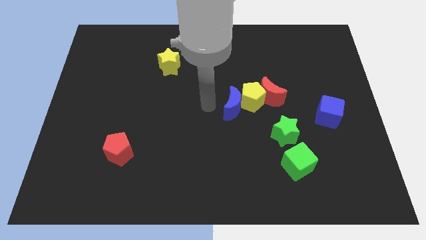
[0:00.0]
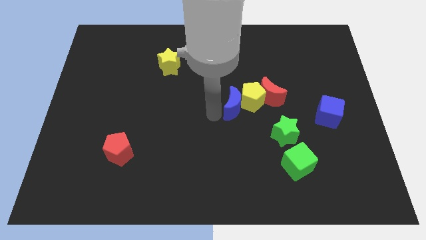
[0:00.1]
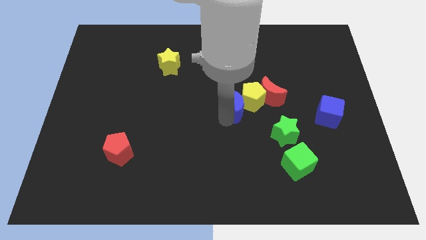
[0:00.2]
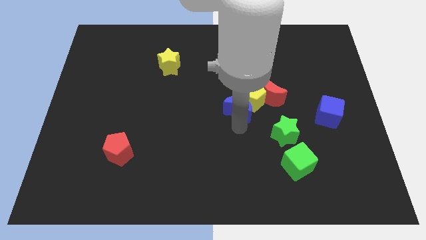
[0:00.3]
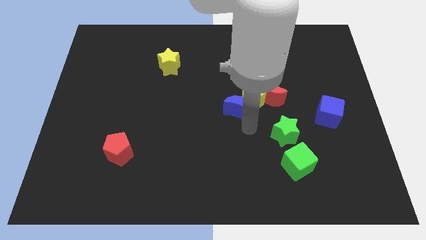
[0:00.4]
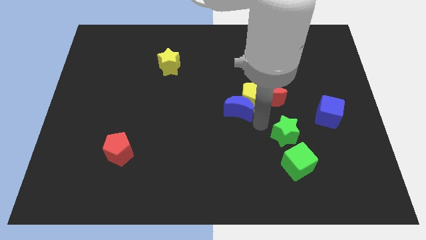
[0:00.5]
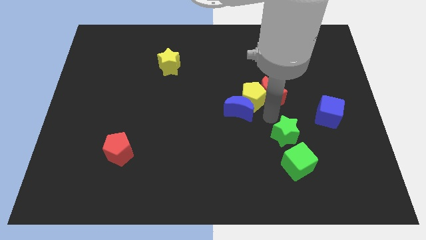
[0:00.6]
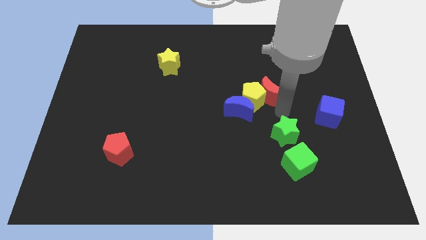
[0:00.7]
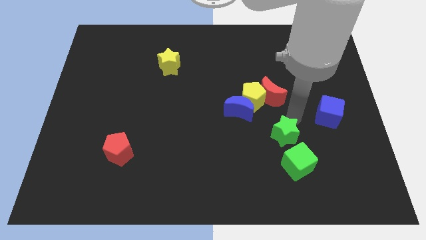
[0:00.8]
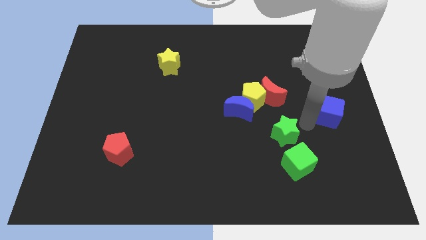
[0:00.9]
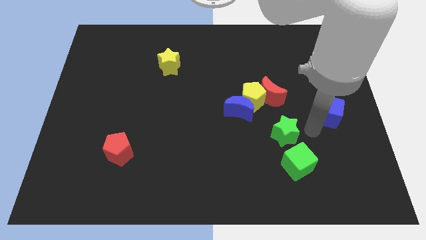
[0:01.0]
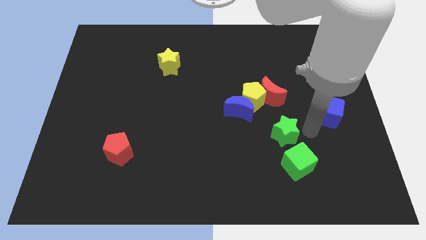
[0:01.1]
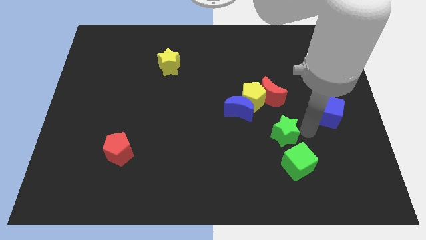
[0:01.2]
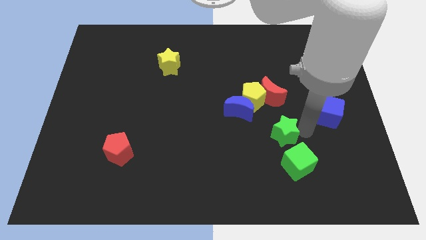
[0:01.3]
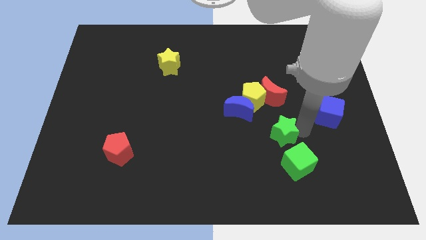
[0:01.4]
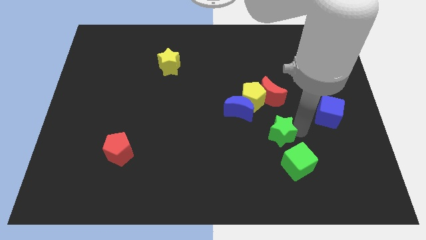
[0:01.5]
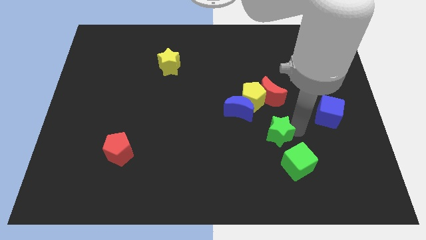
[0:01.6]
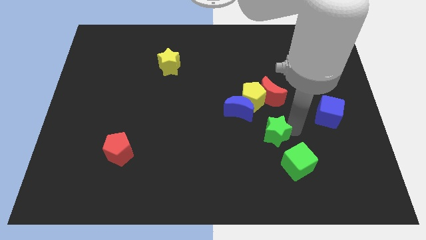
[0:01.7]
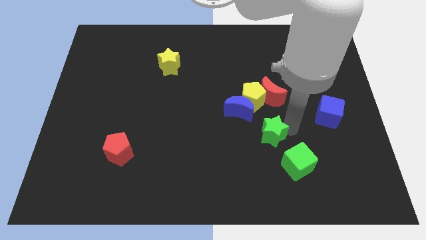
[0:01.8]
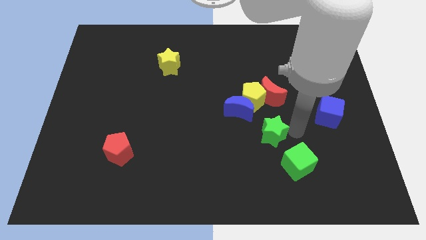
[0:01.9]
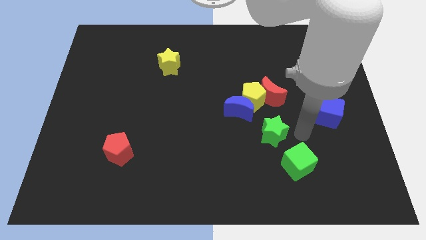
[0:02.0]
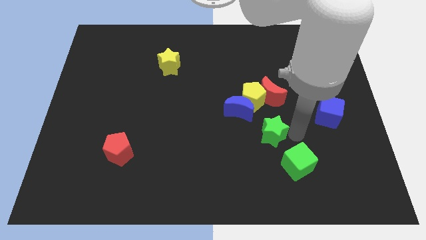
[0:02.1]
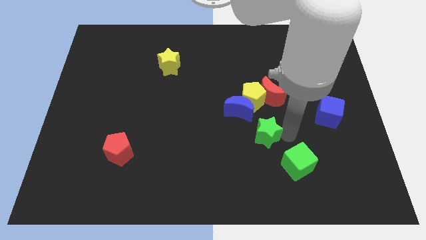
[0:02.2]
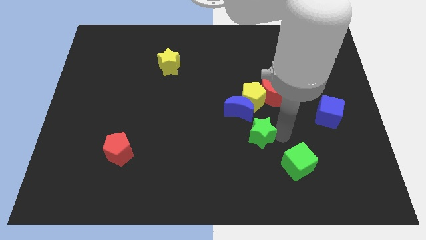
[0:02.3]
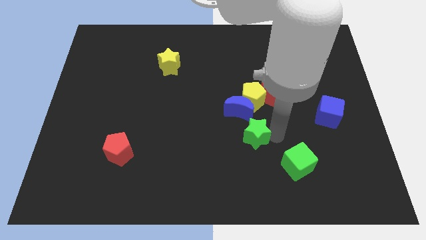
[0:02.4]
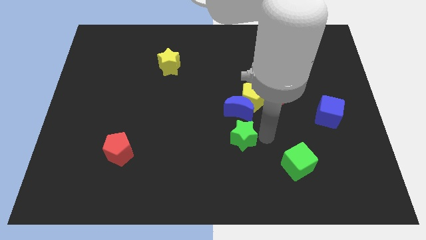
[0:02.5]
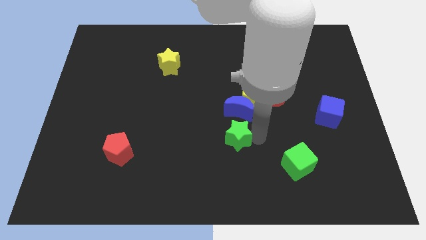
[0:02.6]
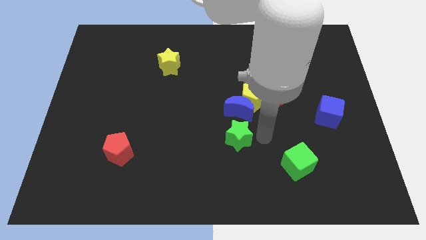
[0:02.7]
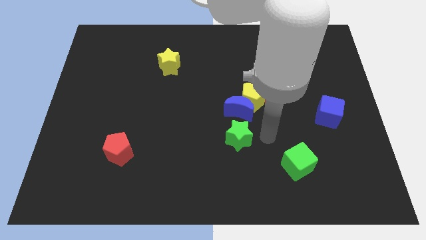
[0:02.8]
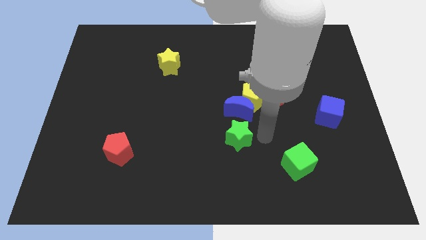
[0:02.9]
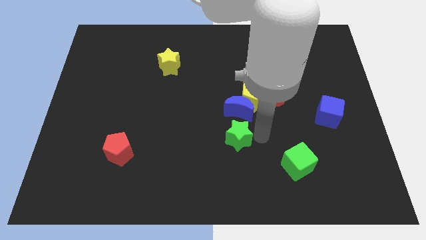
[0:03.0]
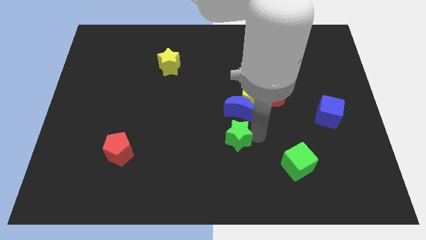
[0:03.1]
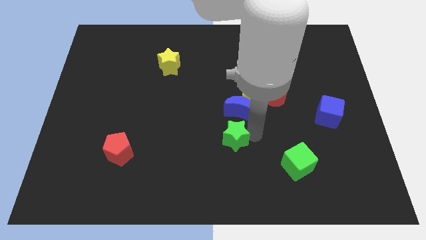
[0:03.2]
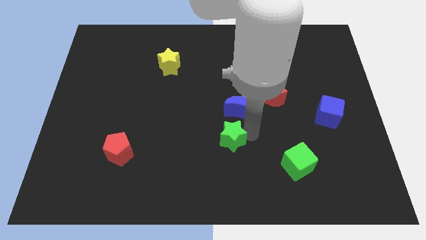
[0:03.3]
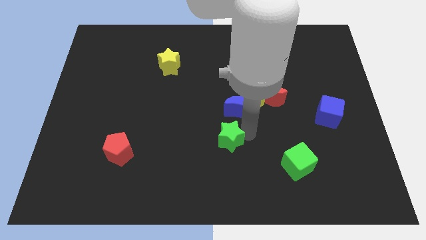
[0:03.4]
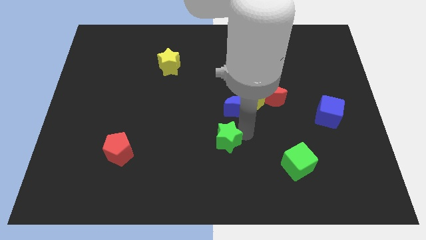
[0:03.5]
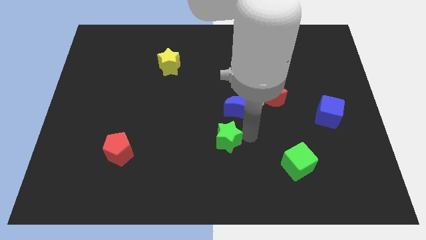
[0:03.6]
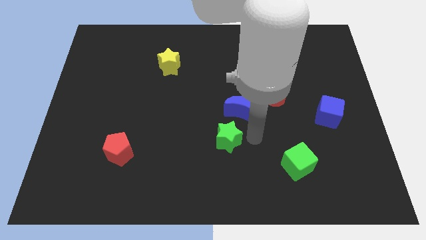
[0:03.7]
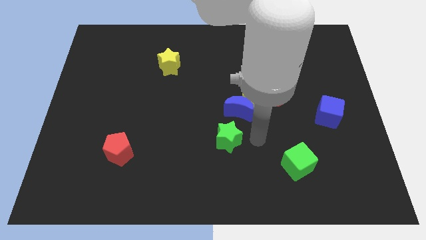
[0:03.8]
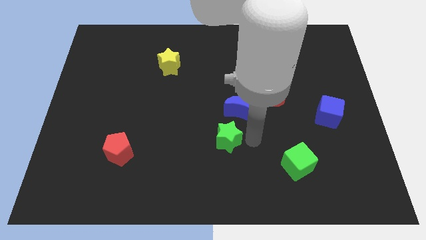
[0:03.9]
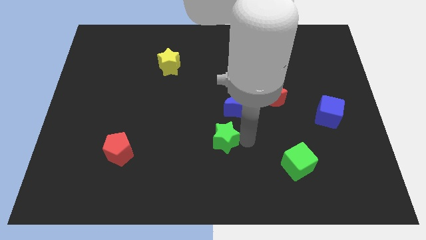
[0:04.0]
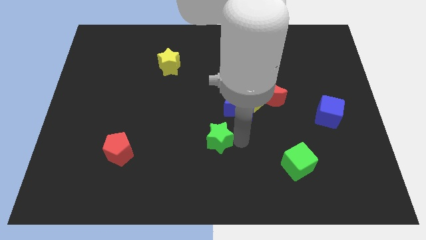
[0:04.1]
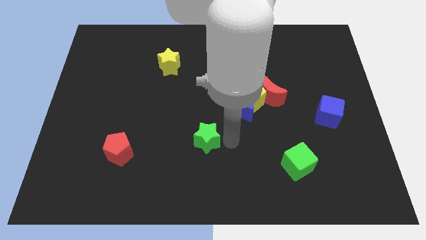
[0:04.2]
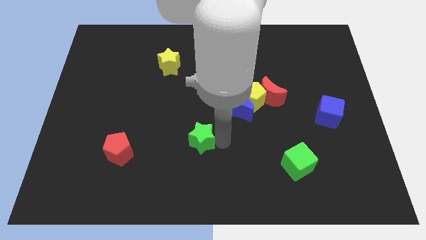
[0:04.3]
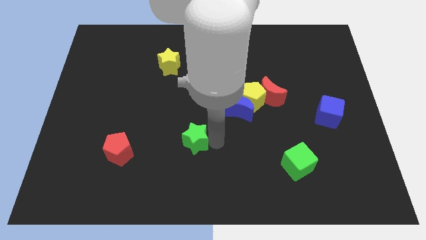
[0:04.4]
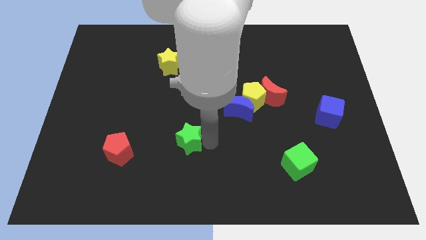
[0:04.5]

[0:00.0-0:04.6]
push the green star to the left

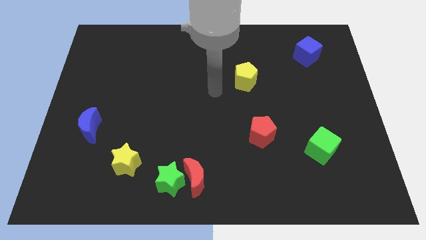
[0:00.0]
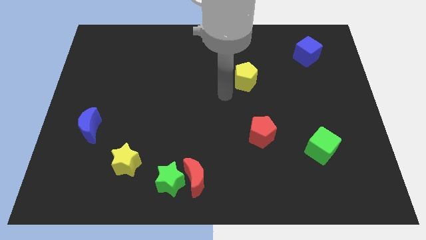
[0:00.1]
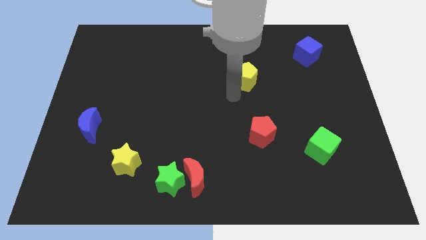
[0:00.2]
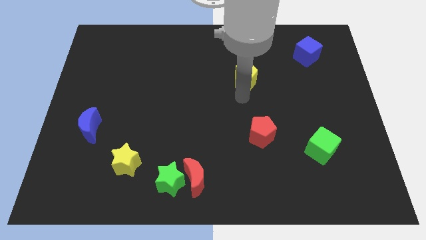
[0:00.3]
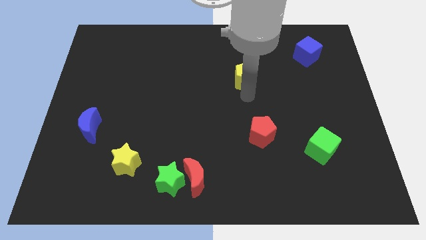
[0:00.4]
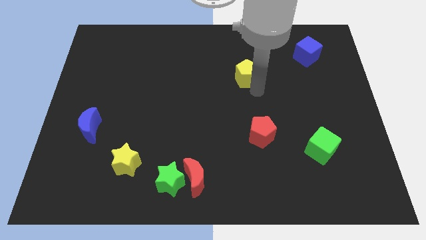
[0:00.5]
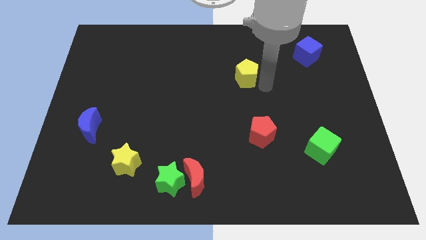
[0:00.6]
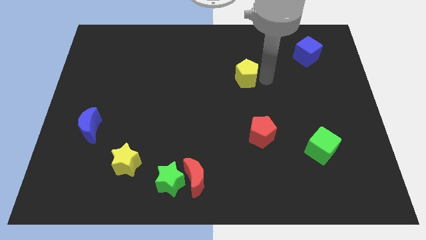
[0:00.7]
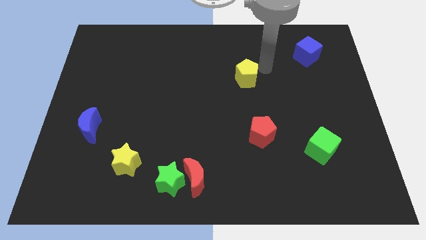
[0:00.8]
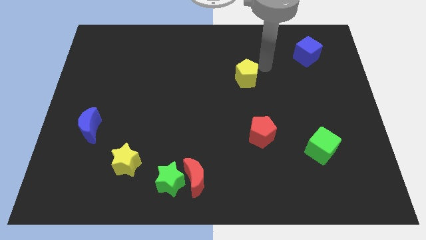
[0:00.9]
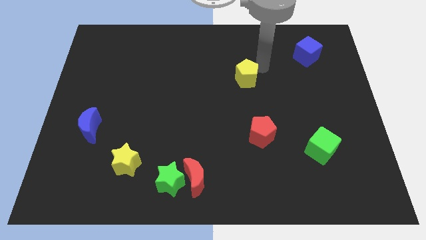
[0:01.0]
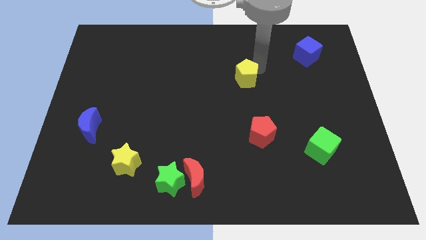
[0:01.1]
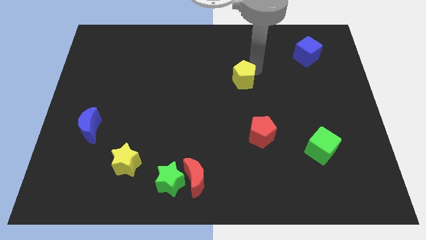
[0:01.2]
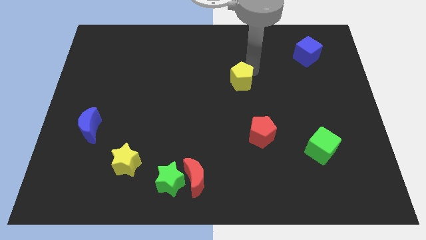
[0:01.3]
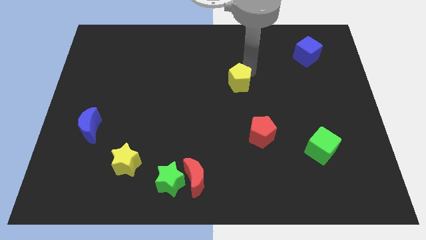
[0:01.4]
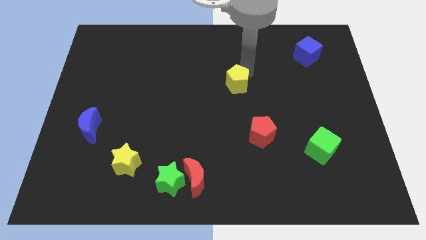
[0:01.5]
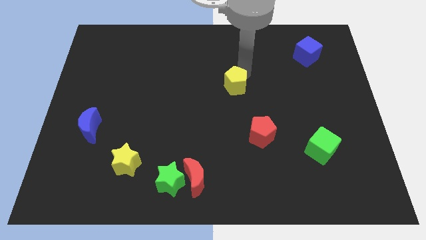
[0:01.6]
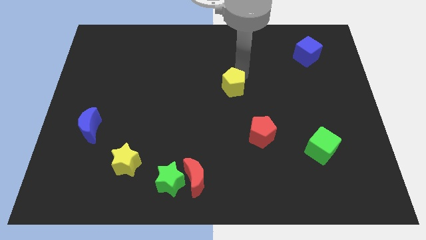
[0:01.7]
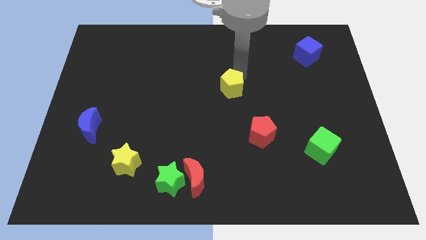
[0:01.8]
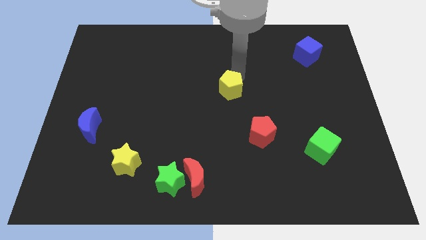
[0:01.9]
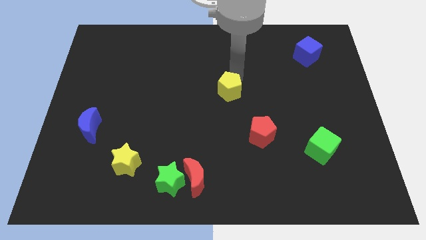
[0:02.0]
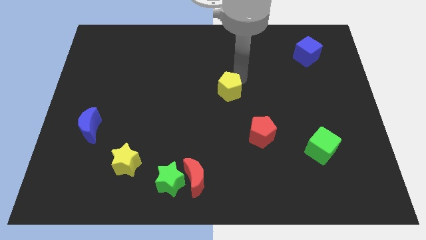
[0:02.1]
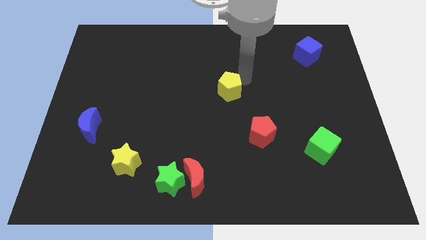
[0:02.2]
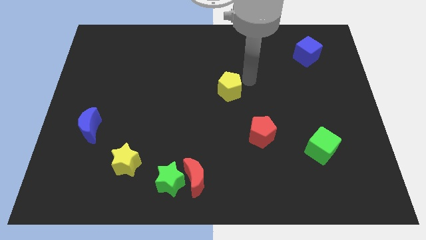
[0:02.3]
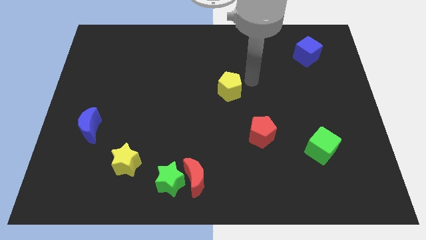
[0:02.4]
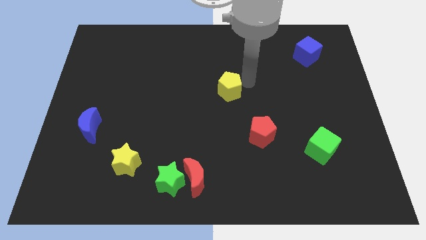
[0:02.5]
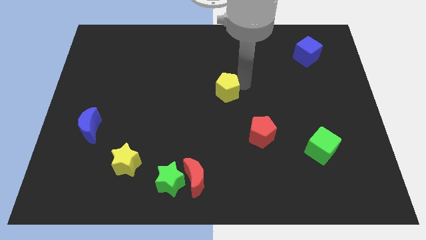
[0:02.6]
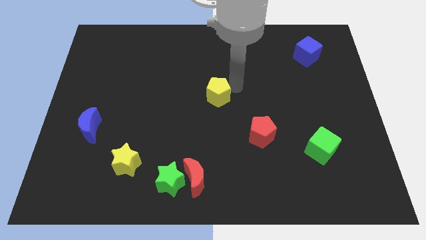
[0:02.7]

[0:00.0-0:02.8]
push the yellow pentagon downwards and to the left a little bit

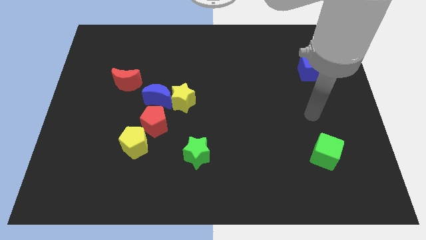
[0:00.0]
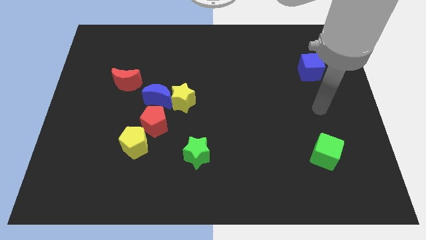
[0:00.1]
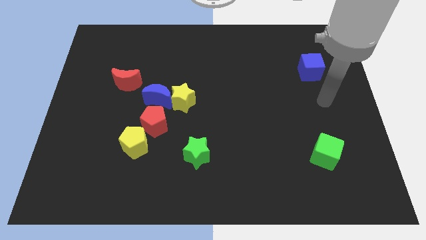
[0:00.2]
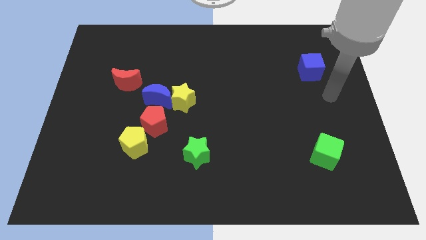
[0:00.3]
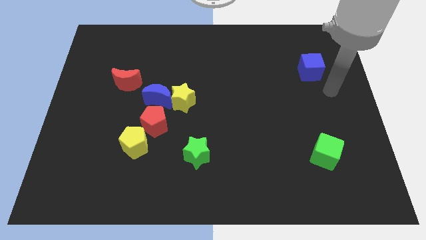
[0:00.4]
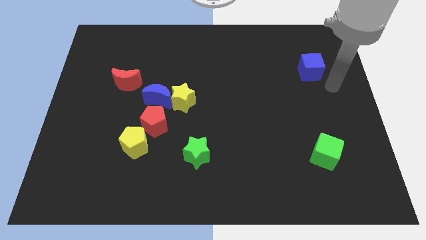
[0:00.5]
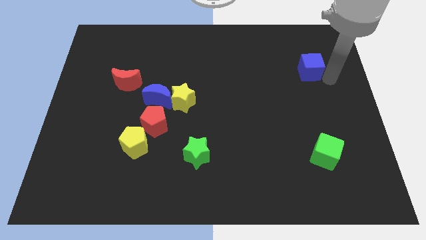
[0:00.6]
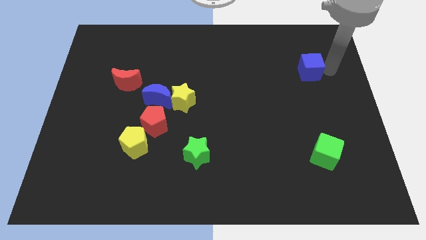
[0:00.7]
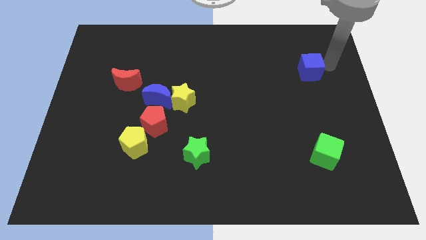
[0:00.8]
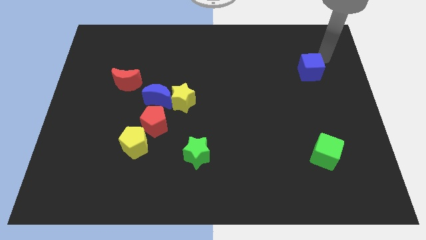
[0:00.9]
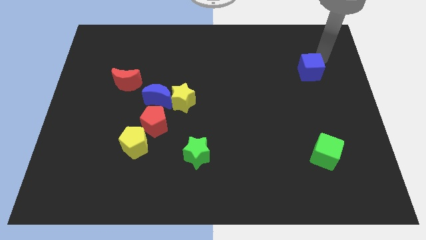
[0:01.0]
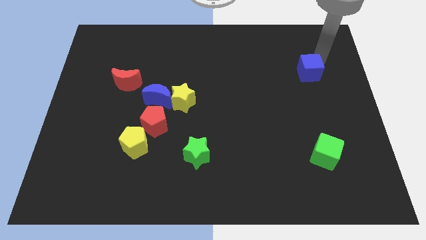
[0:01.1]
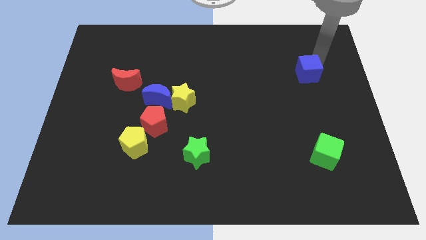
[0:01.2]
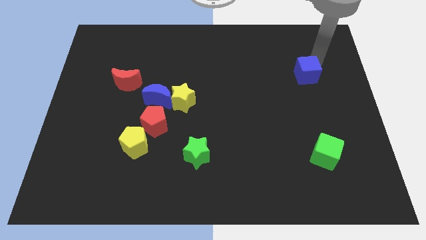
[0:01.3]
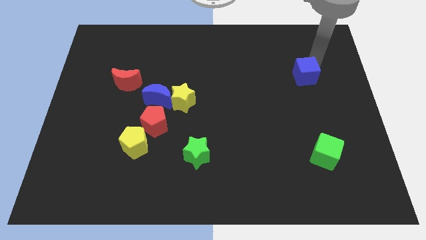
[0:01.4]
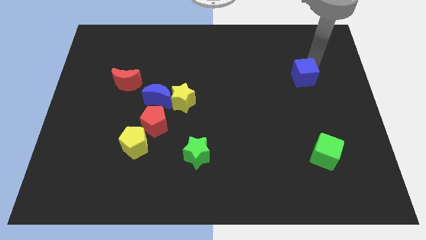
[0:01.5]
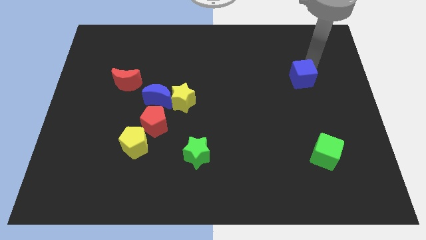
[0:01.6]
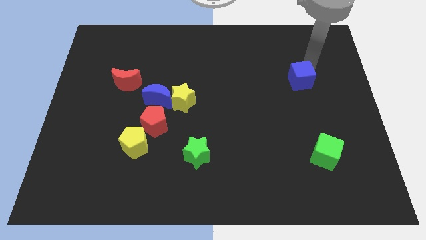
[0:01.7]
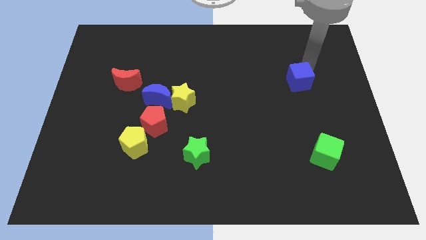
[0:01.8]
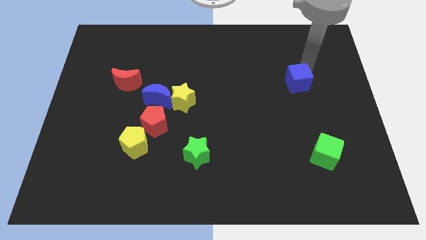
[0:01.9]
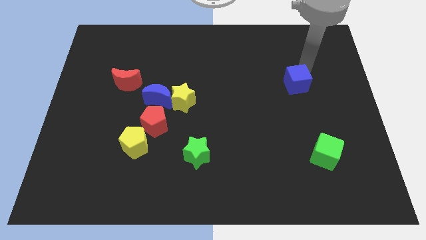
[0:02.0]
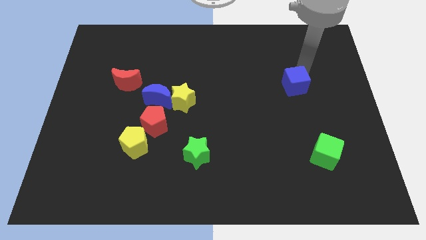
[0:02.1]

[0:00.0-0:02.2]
slightly move the blue cube downwards and to the left
